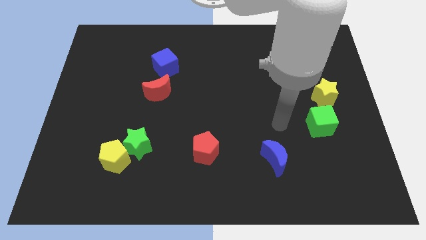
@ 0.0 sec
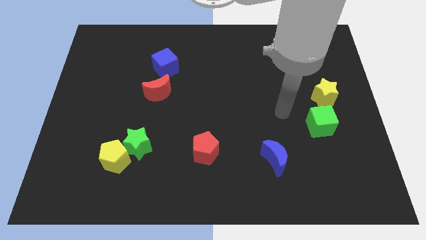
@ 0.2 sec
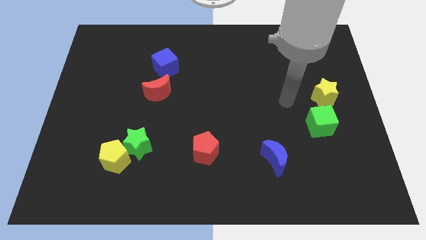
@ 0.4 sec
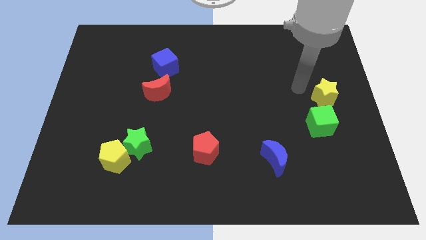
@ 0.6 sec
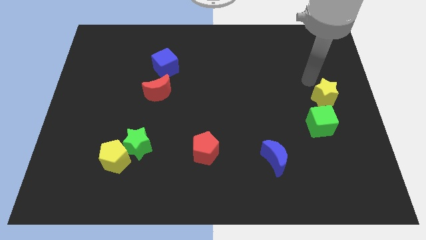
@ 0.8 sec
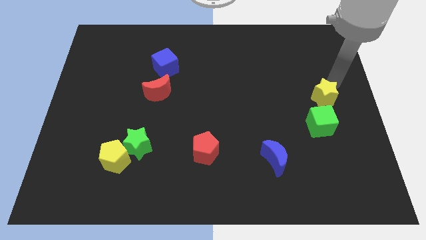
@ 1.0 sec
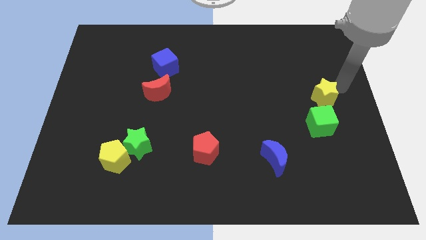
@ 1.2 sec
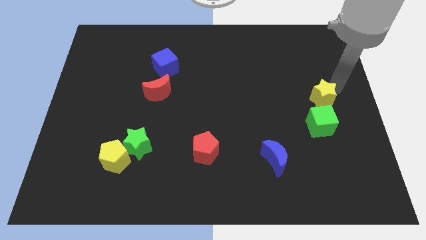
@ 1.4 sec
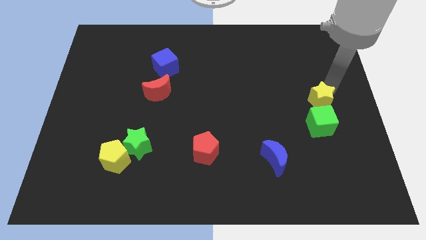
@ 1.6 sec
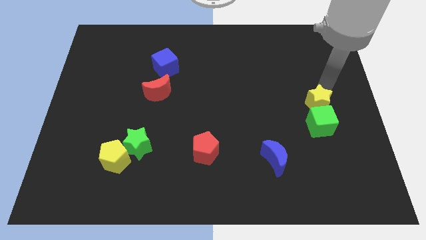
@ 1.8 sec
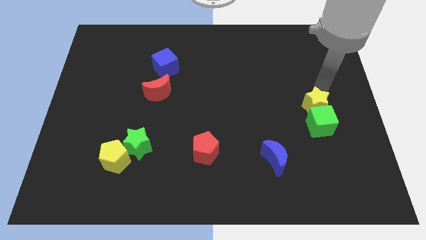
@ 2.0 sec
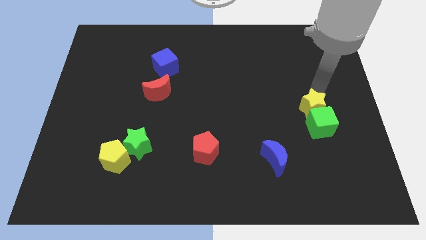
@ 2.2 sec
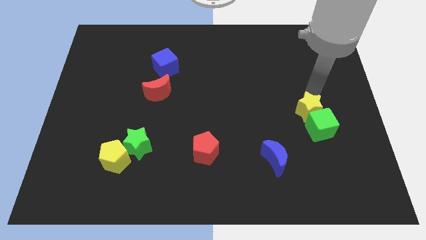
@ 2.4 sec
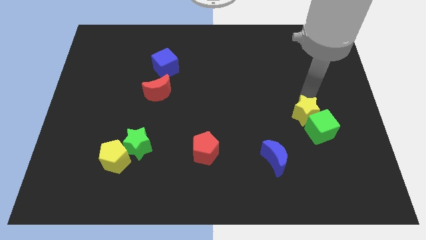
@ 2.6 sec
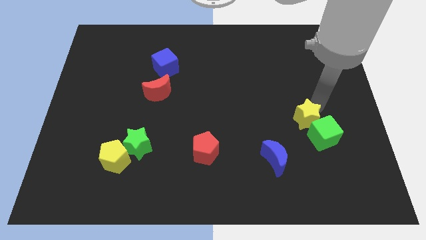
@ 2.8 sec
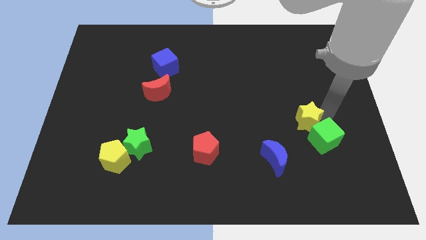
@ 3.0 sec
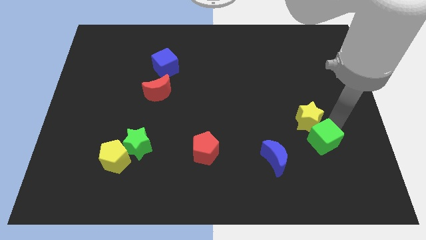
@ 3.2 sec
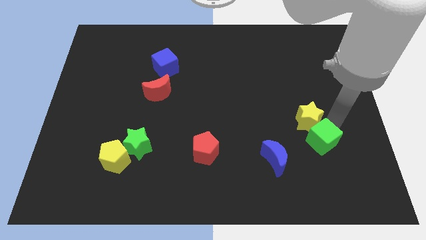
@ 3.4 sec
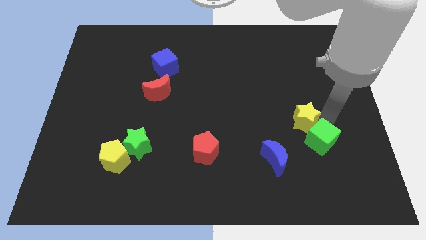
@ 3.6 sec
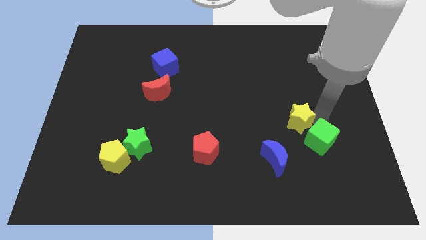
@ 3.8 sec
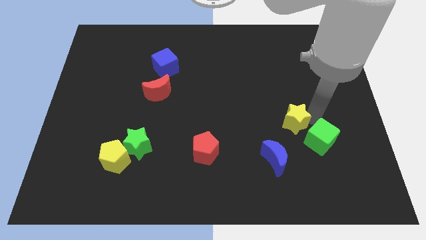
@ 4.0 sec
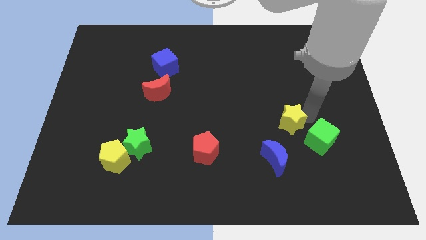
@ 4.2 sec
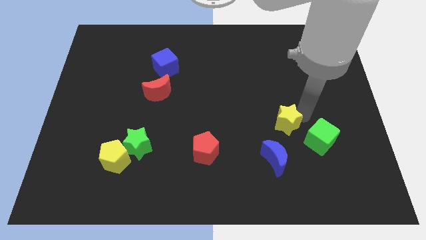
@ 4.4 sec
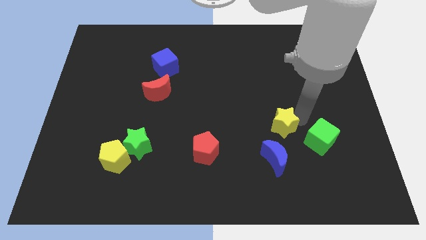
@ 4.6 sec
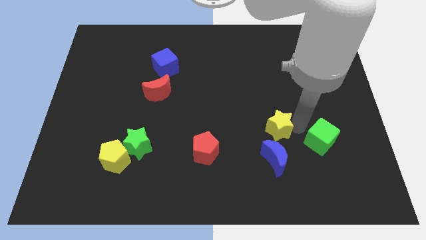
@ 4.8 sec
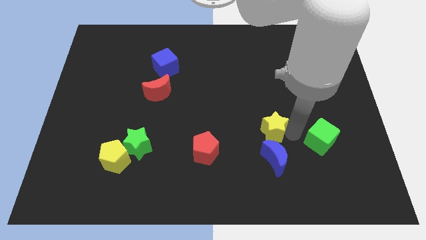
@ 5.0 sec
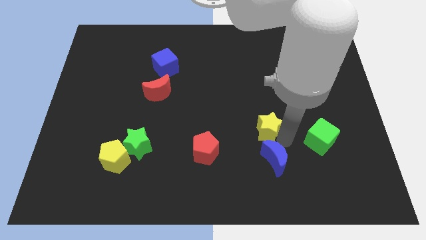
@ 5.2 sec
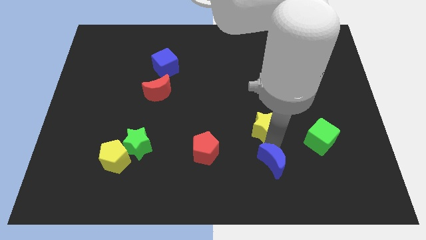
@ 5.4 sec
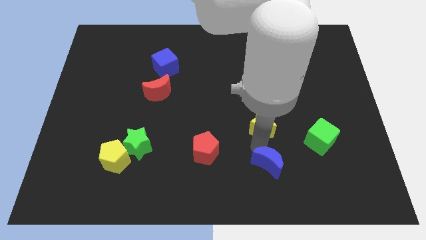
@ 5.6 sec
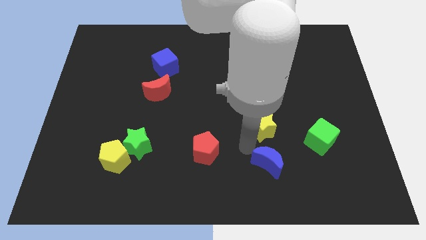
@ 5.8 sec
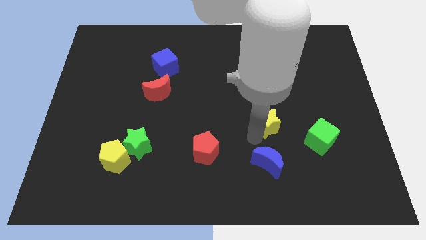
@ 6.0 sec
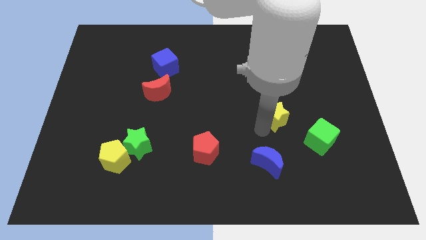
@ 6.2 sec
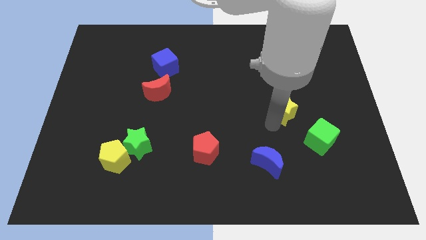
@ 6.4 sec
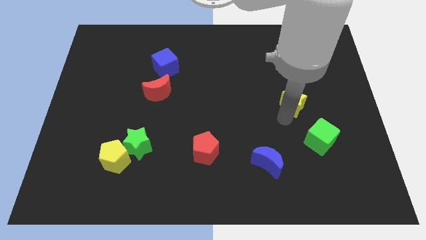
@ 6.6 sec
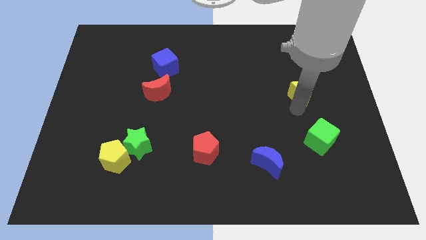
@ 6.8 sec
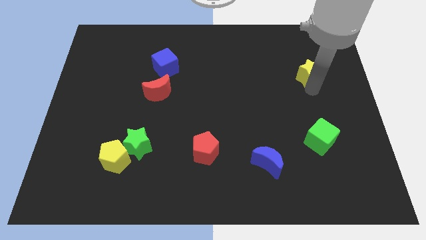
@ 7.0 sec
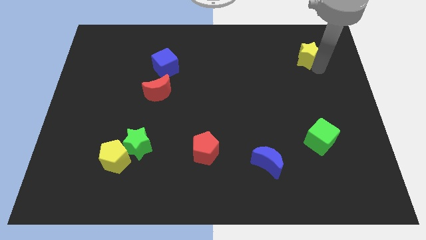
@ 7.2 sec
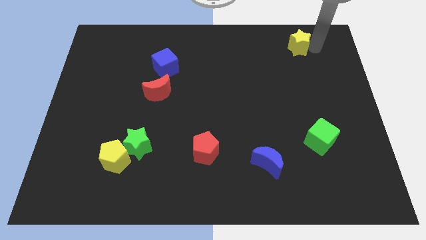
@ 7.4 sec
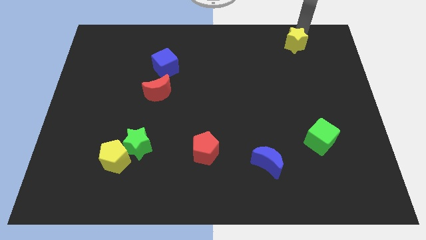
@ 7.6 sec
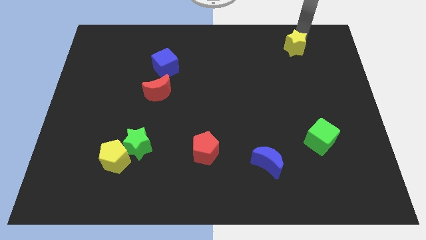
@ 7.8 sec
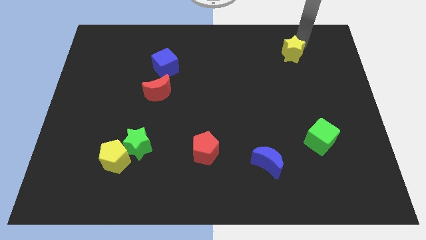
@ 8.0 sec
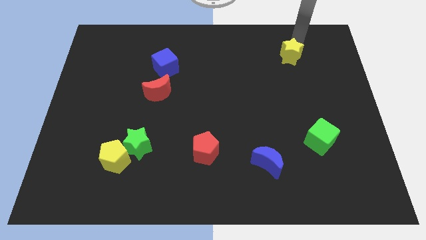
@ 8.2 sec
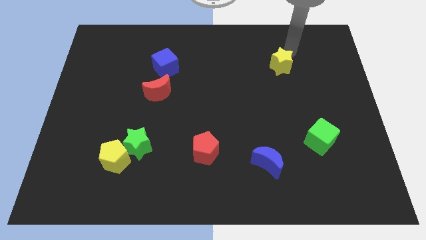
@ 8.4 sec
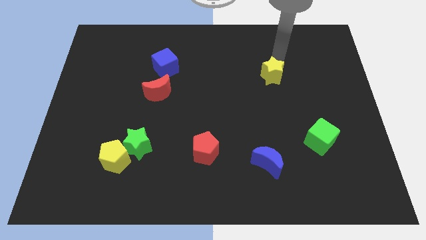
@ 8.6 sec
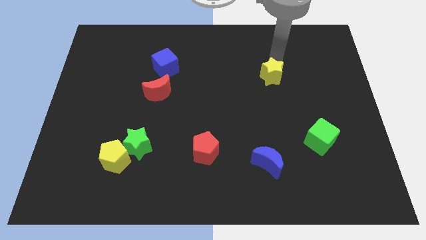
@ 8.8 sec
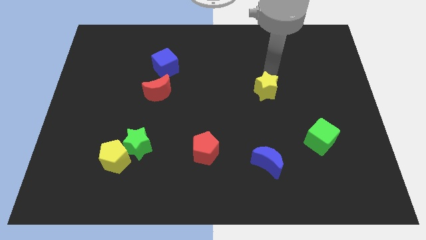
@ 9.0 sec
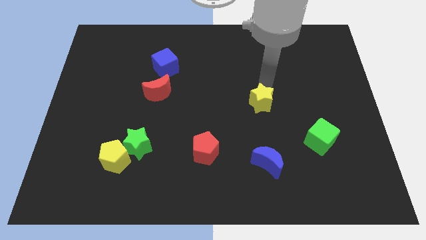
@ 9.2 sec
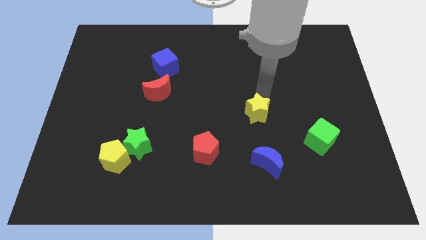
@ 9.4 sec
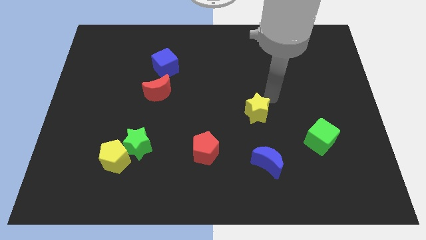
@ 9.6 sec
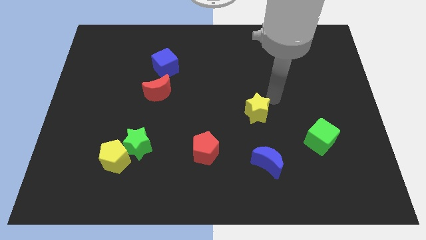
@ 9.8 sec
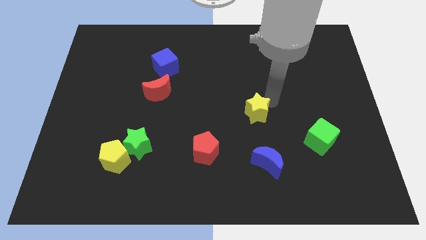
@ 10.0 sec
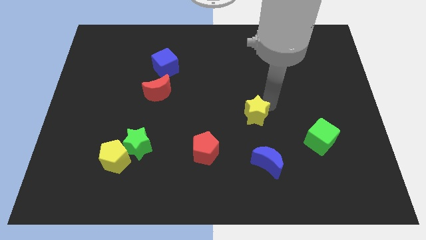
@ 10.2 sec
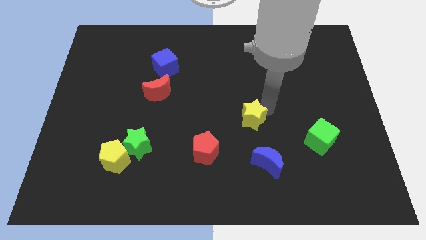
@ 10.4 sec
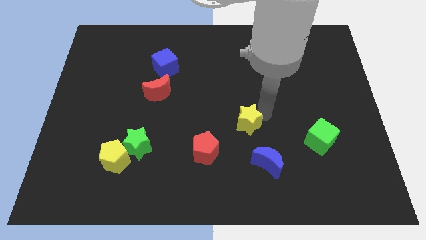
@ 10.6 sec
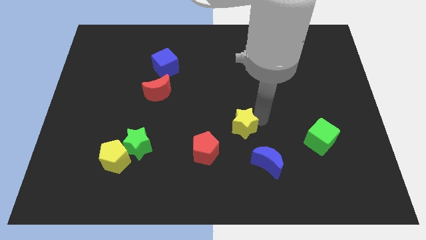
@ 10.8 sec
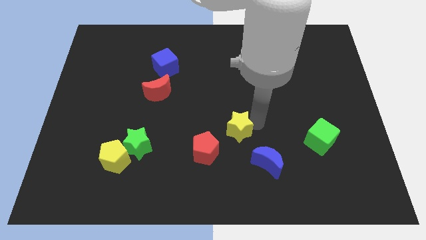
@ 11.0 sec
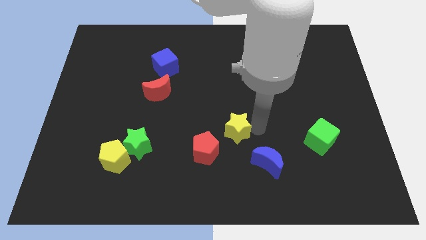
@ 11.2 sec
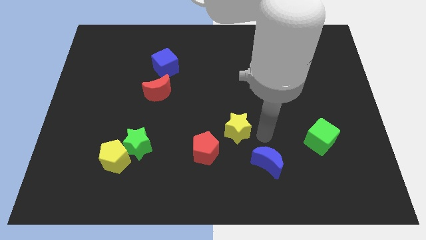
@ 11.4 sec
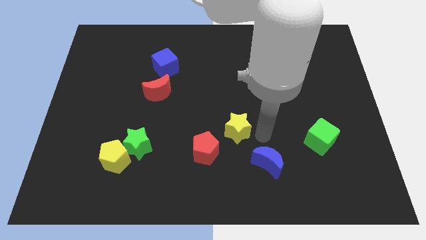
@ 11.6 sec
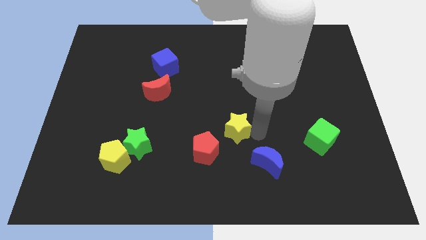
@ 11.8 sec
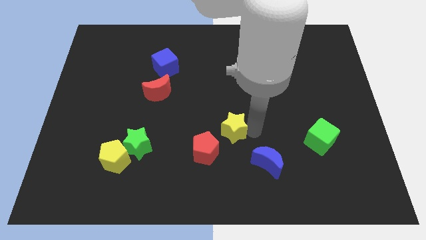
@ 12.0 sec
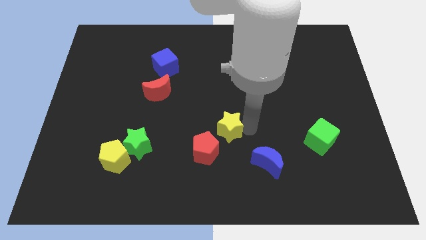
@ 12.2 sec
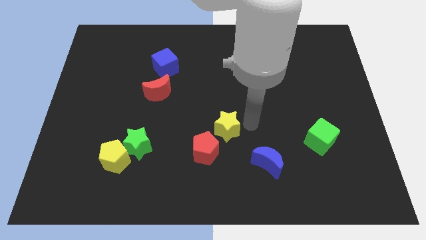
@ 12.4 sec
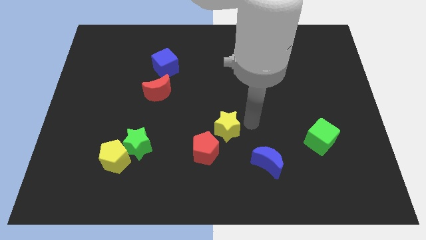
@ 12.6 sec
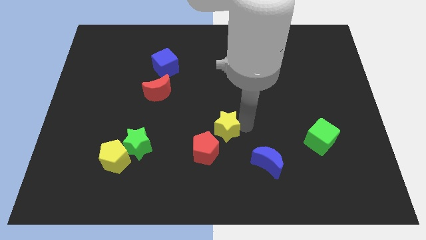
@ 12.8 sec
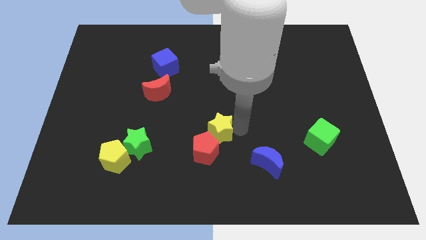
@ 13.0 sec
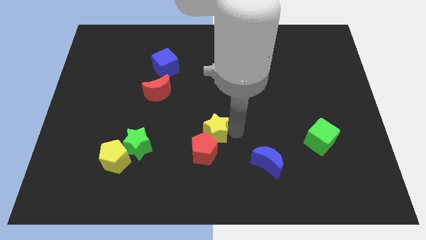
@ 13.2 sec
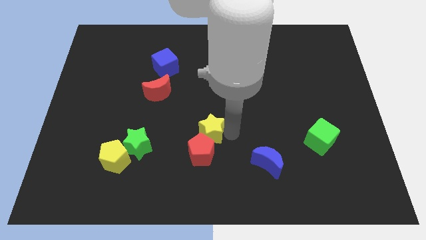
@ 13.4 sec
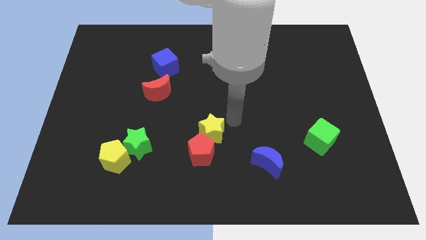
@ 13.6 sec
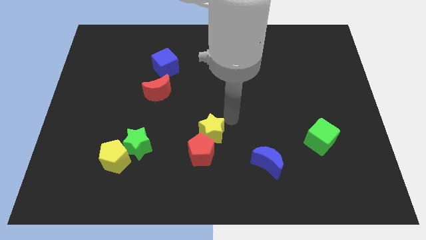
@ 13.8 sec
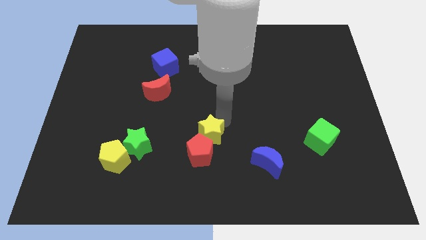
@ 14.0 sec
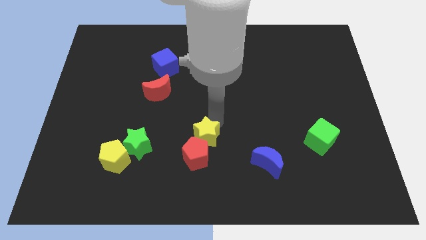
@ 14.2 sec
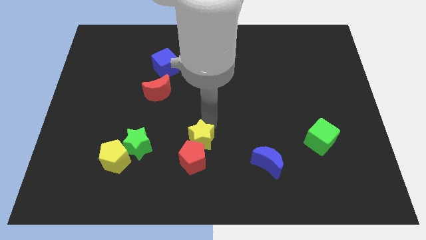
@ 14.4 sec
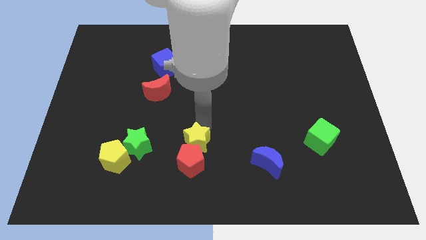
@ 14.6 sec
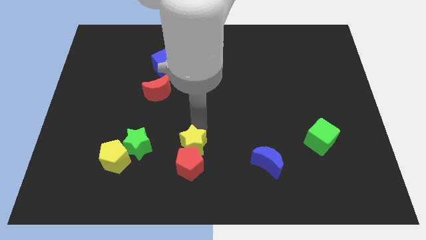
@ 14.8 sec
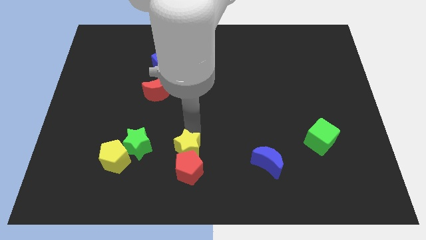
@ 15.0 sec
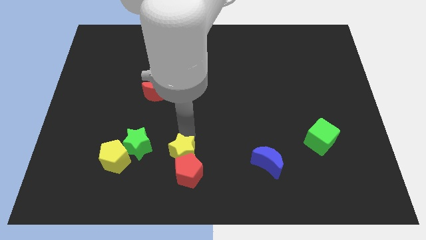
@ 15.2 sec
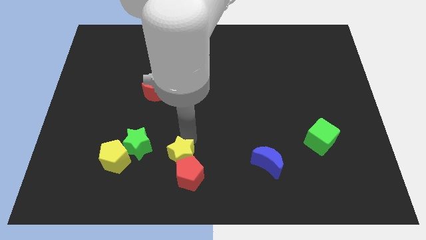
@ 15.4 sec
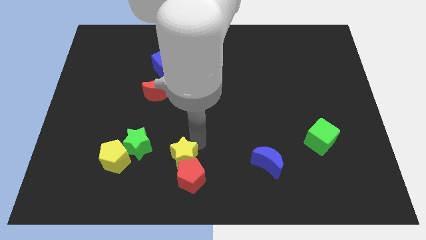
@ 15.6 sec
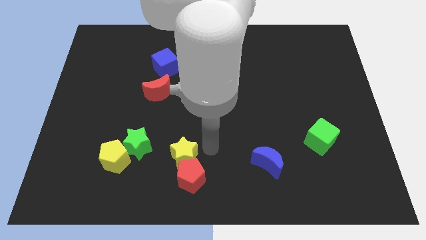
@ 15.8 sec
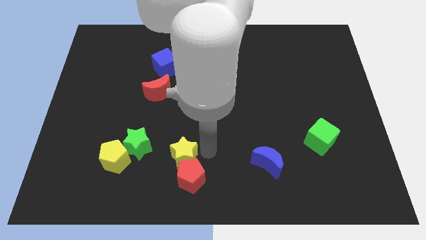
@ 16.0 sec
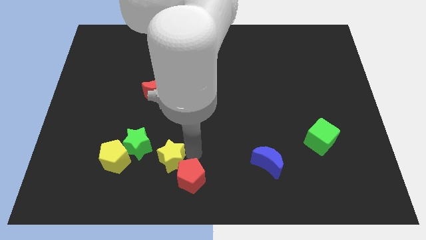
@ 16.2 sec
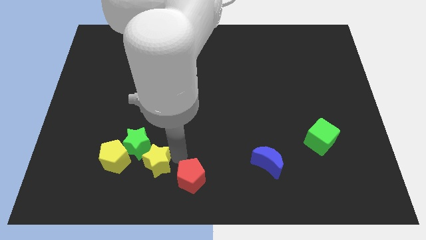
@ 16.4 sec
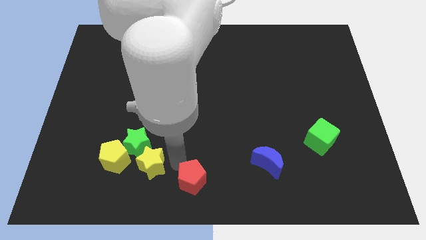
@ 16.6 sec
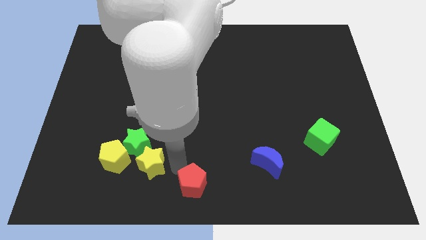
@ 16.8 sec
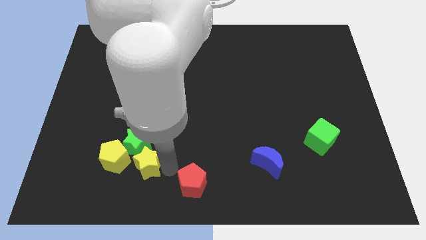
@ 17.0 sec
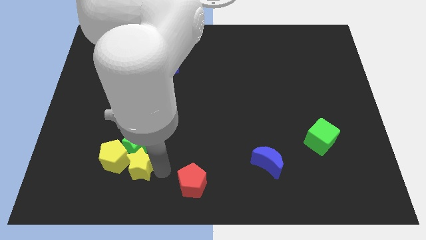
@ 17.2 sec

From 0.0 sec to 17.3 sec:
push the yellow star towards the yellow pentagon
